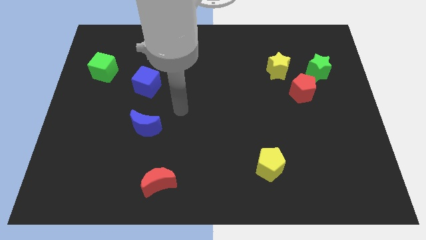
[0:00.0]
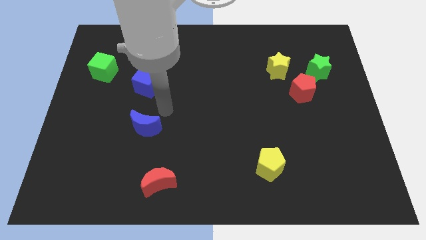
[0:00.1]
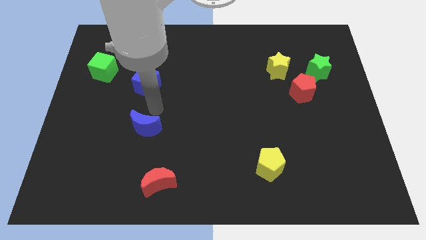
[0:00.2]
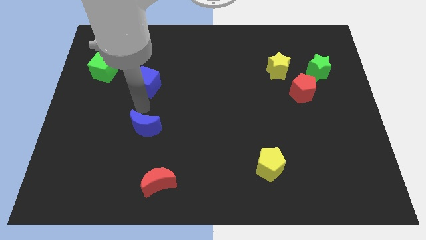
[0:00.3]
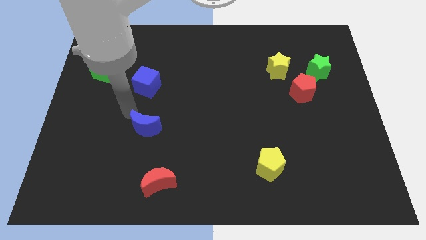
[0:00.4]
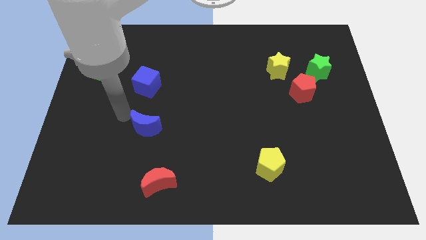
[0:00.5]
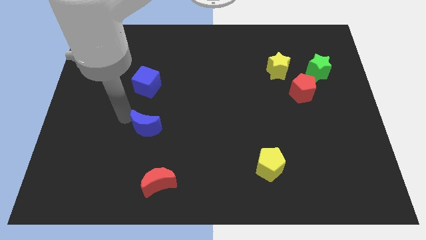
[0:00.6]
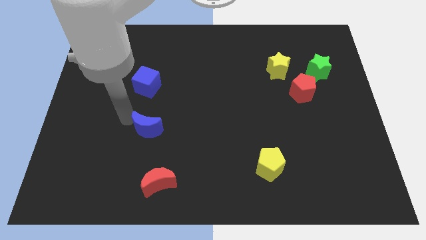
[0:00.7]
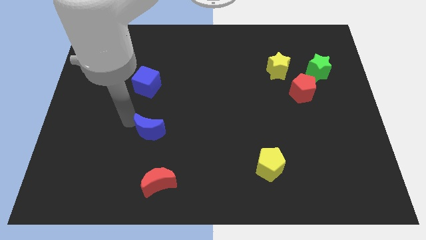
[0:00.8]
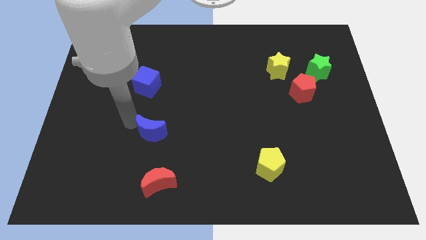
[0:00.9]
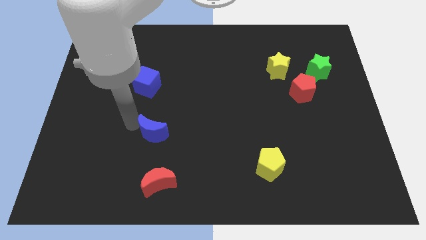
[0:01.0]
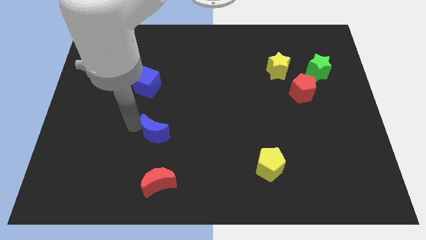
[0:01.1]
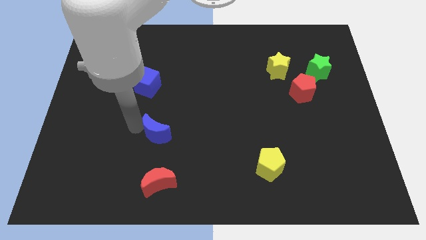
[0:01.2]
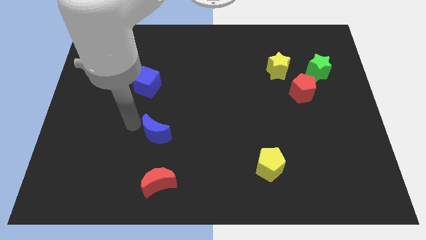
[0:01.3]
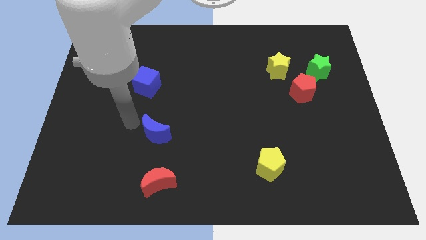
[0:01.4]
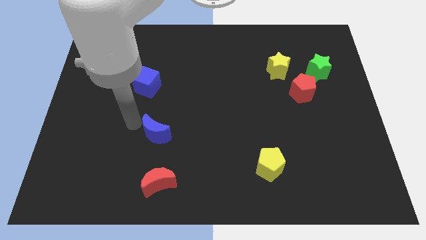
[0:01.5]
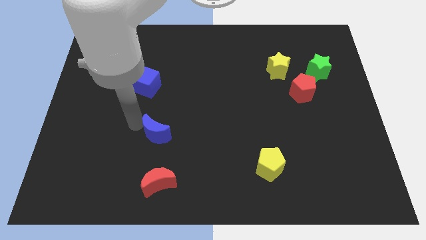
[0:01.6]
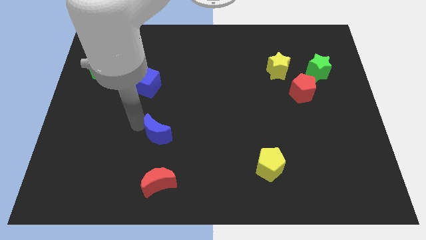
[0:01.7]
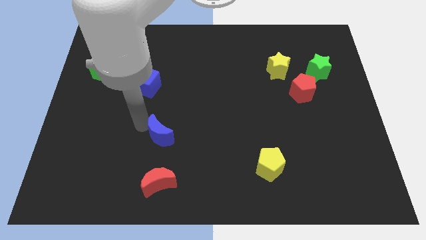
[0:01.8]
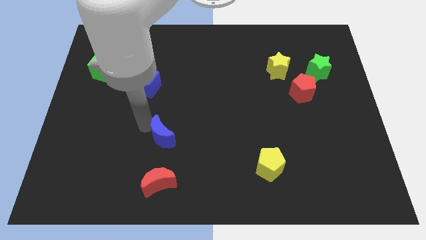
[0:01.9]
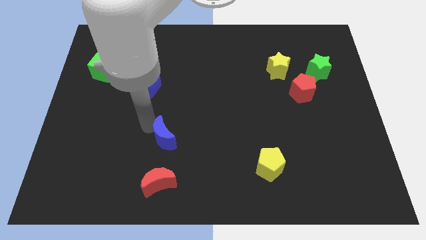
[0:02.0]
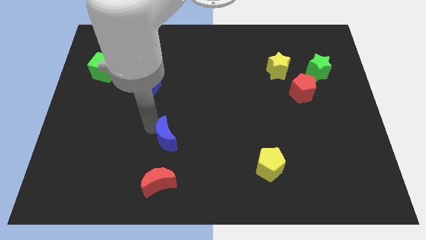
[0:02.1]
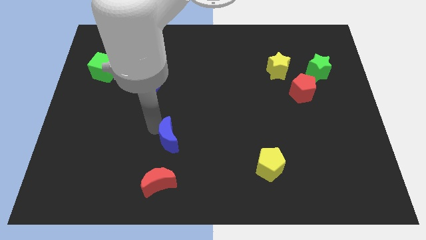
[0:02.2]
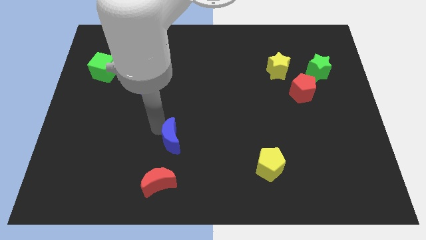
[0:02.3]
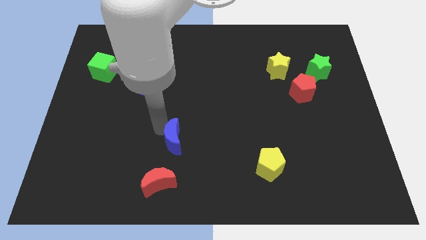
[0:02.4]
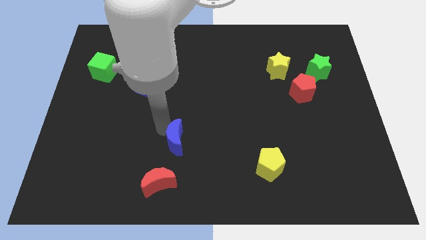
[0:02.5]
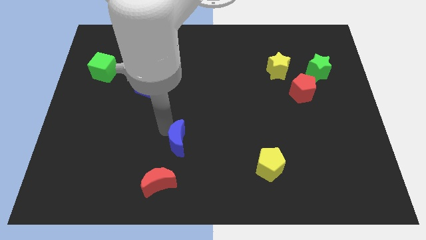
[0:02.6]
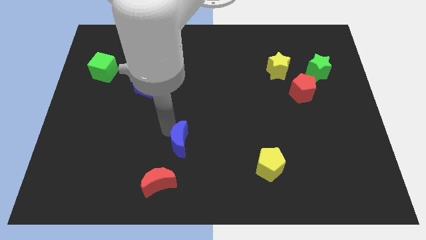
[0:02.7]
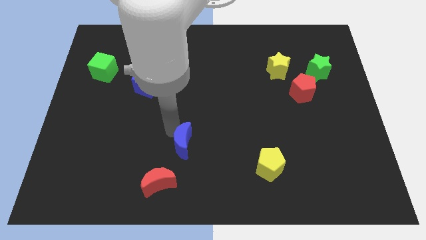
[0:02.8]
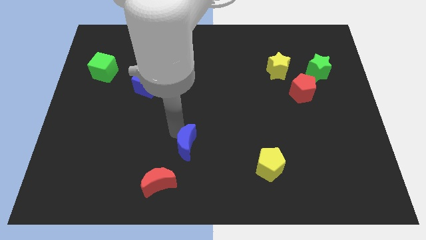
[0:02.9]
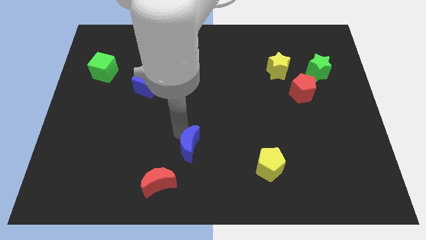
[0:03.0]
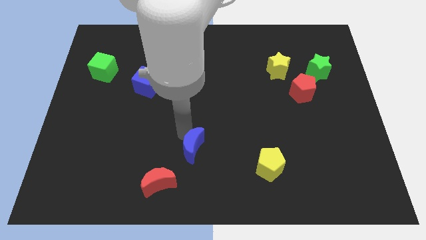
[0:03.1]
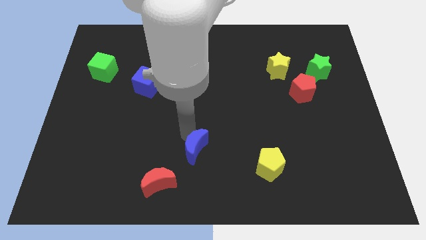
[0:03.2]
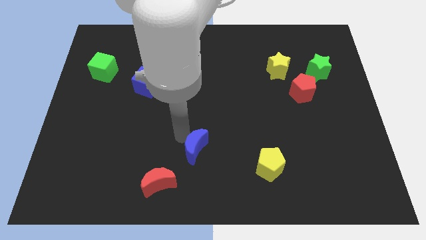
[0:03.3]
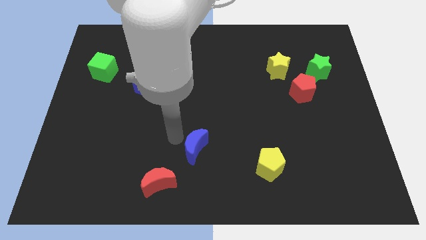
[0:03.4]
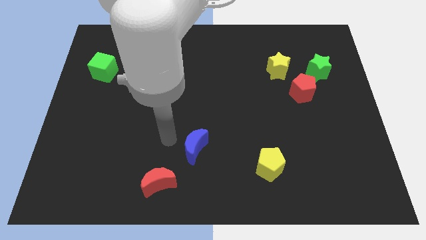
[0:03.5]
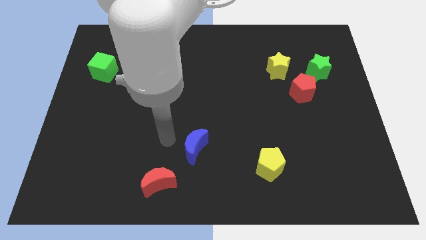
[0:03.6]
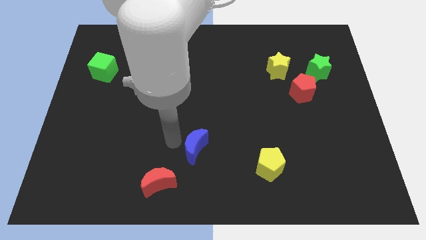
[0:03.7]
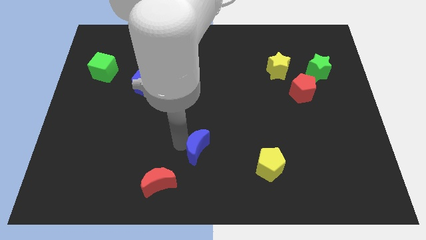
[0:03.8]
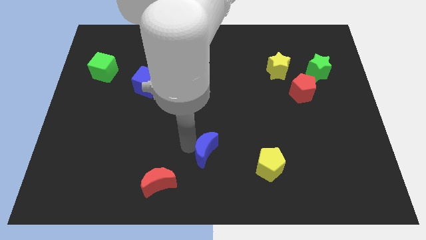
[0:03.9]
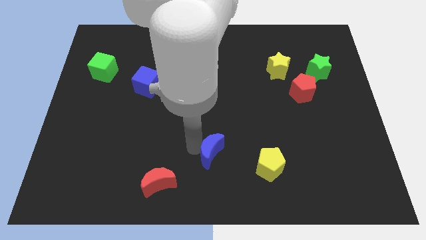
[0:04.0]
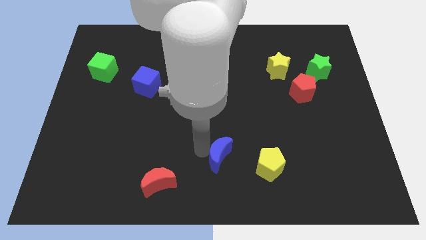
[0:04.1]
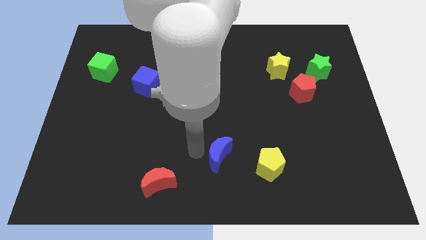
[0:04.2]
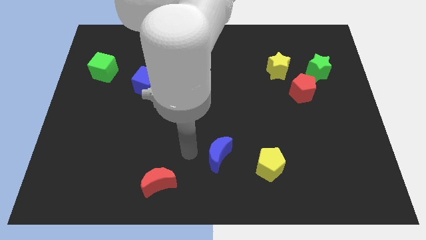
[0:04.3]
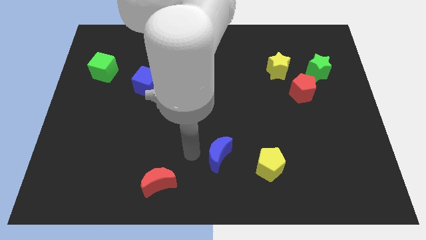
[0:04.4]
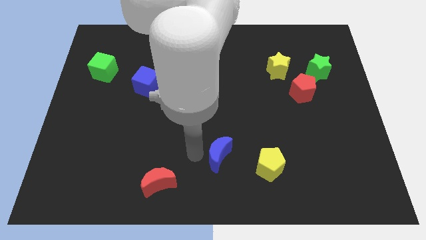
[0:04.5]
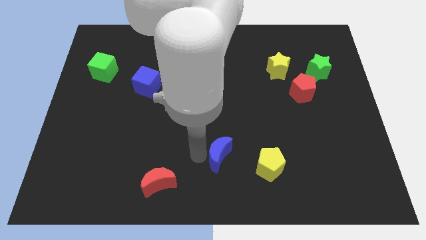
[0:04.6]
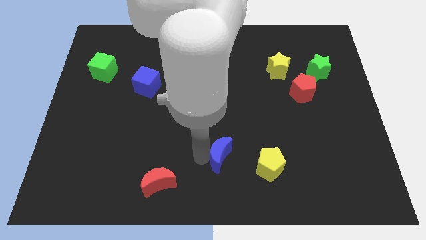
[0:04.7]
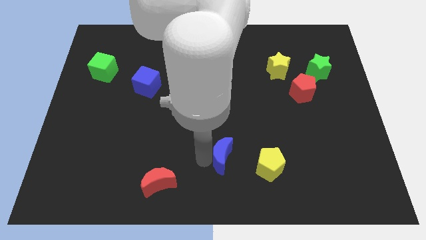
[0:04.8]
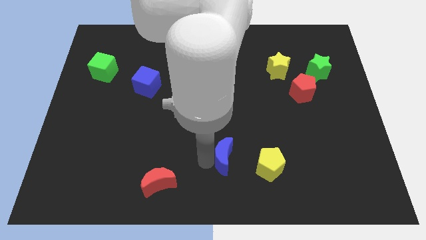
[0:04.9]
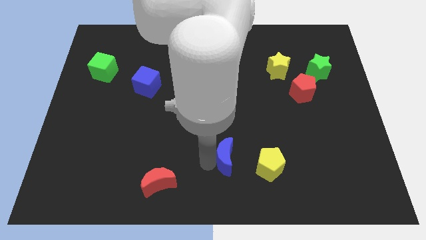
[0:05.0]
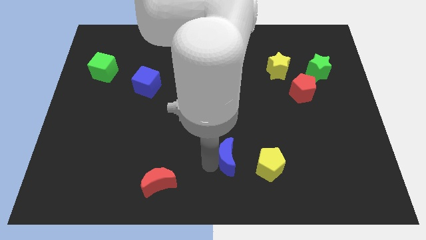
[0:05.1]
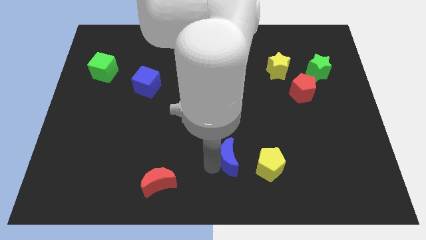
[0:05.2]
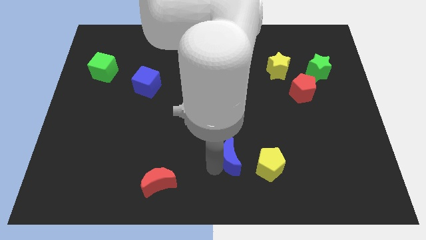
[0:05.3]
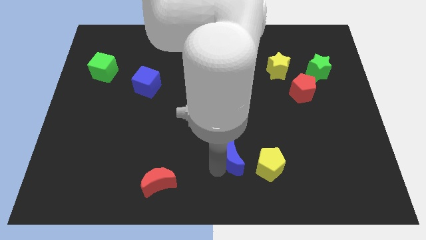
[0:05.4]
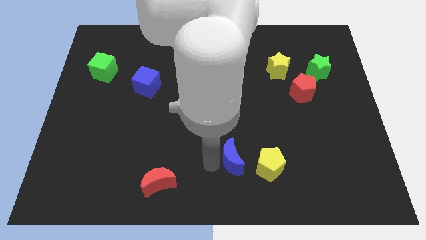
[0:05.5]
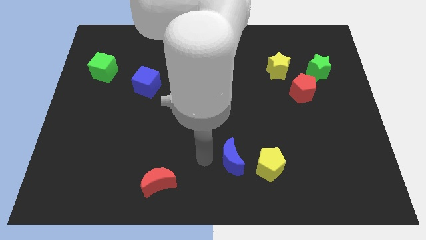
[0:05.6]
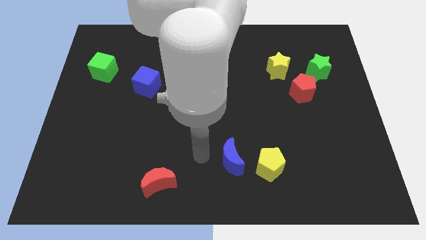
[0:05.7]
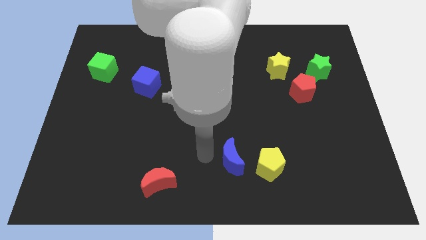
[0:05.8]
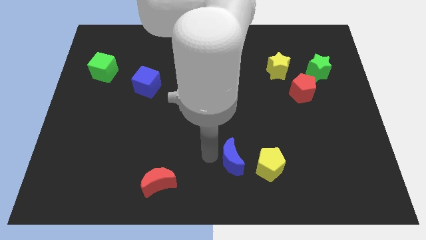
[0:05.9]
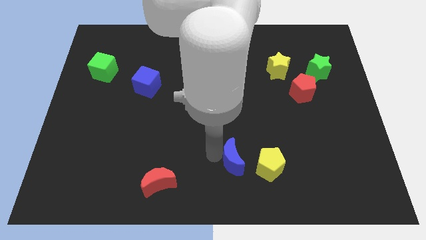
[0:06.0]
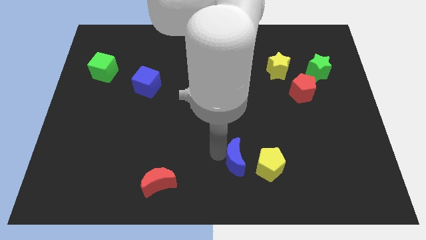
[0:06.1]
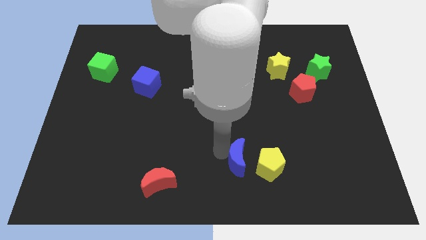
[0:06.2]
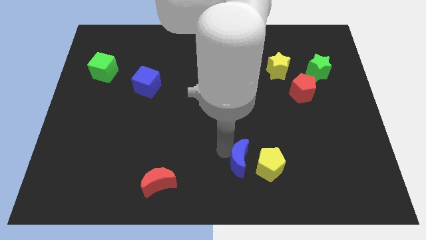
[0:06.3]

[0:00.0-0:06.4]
slide the blue moon towards the yellow pentagon
